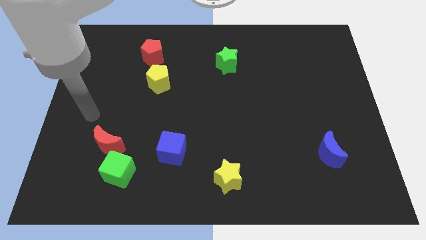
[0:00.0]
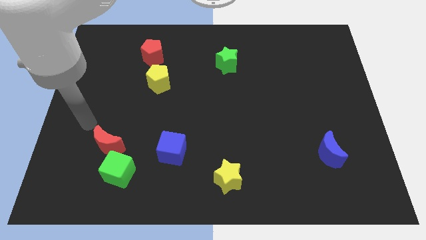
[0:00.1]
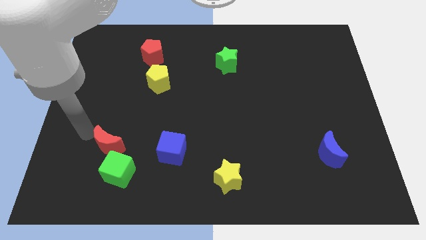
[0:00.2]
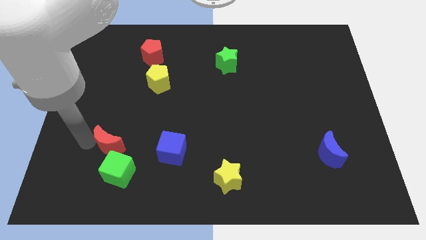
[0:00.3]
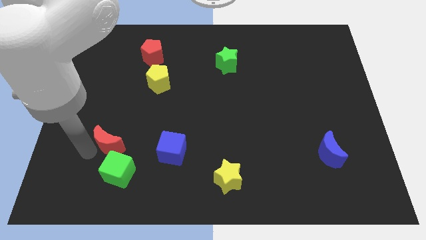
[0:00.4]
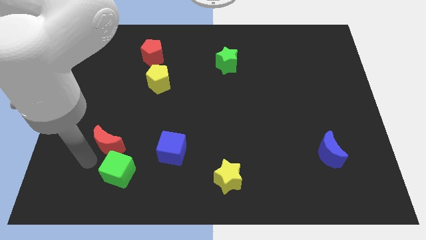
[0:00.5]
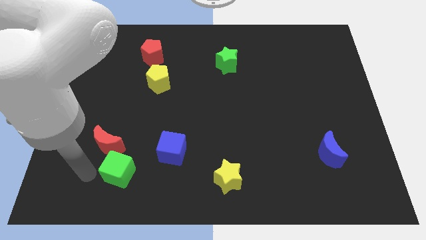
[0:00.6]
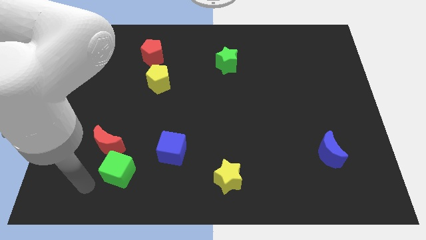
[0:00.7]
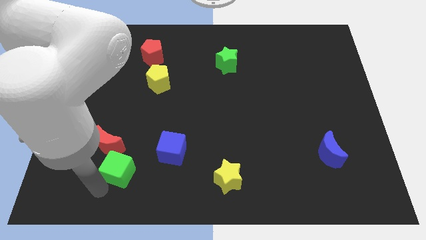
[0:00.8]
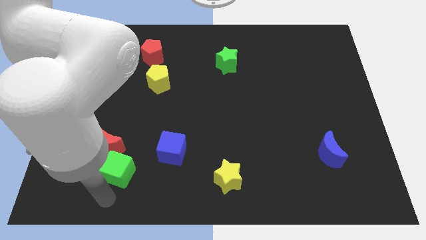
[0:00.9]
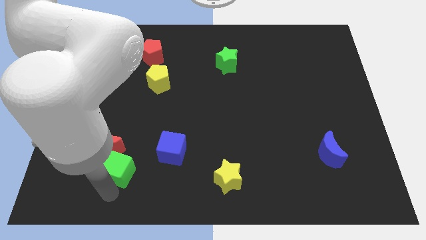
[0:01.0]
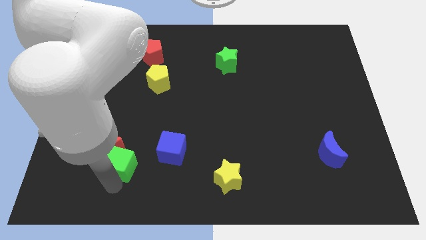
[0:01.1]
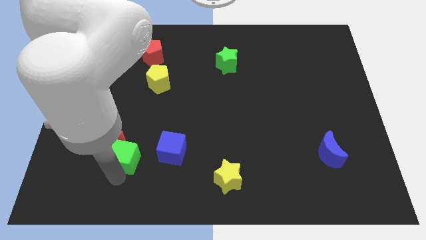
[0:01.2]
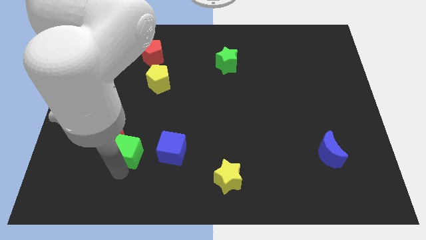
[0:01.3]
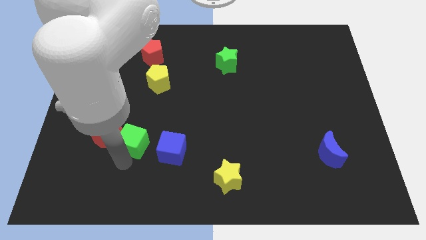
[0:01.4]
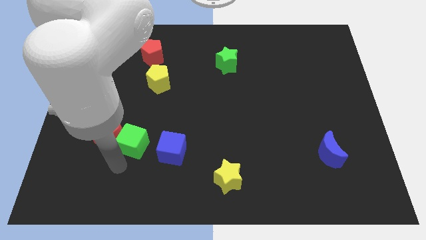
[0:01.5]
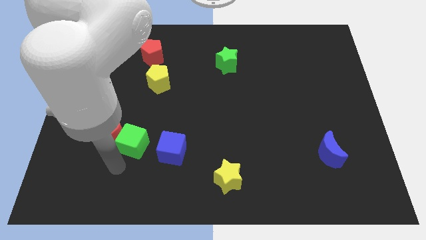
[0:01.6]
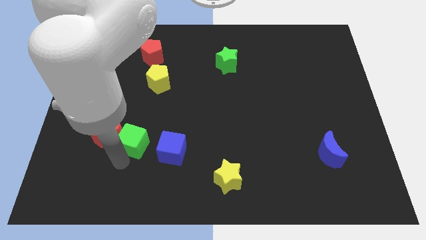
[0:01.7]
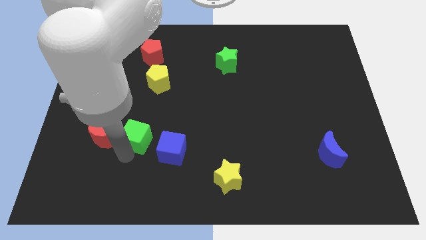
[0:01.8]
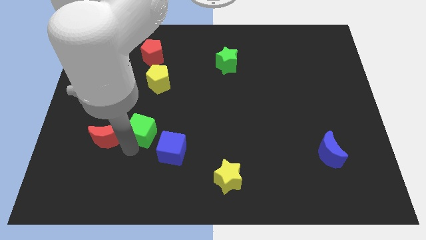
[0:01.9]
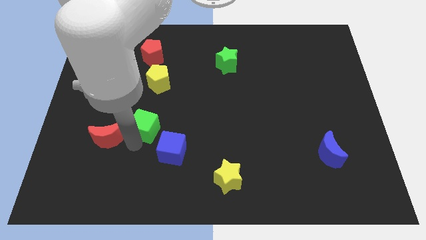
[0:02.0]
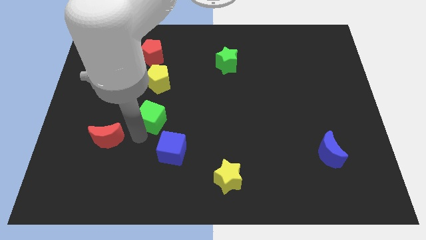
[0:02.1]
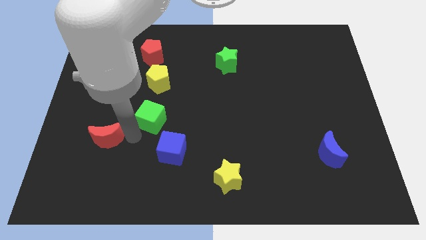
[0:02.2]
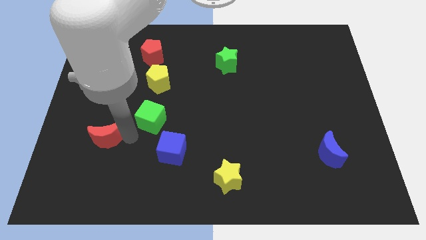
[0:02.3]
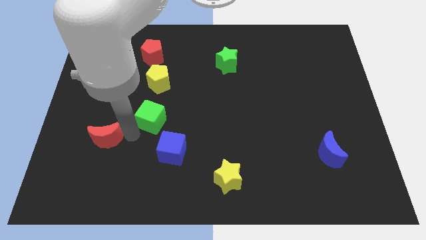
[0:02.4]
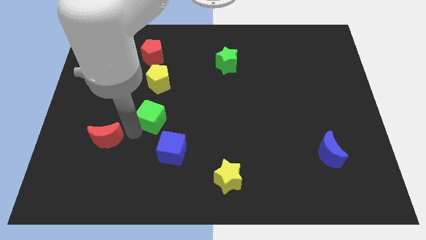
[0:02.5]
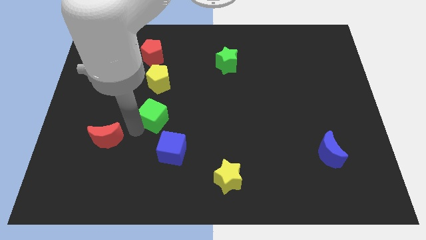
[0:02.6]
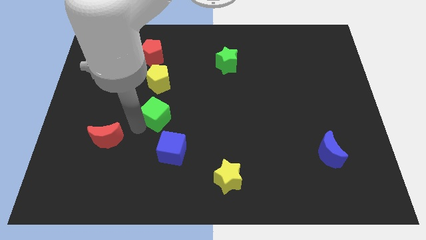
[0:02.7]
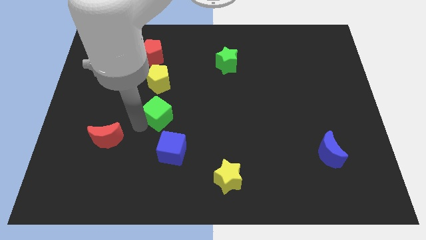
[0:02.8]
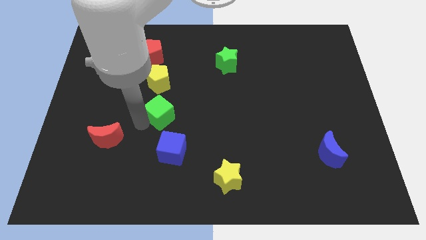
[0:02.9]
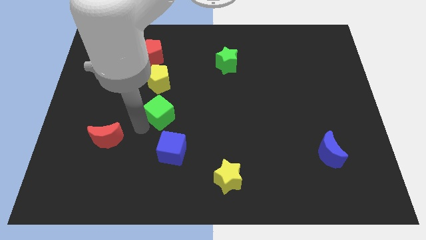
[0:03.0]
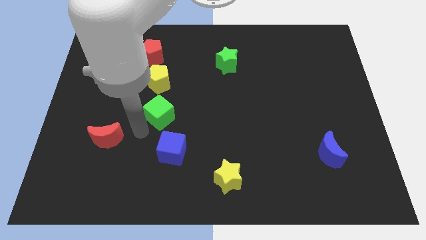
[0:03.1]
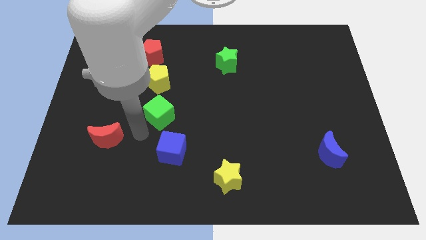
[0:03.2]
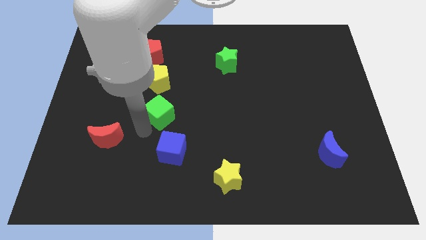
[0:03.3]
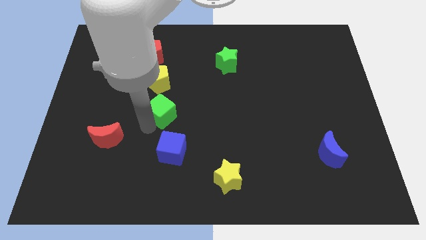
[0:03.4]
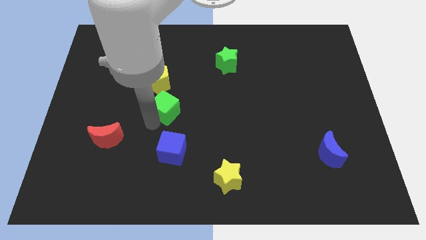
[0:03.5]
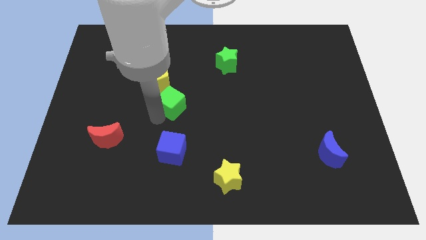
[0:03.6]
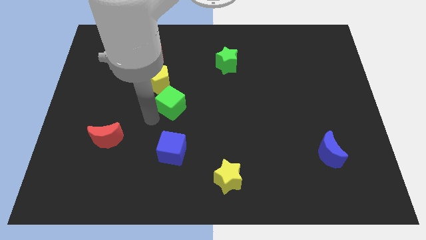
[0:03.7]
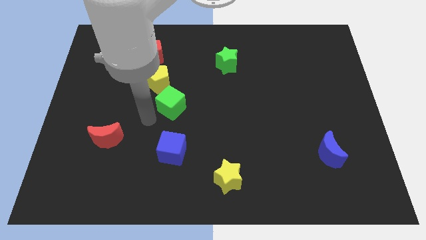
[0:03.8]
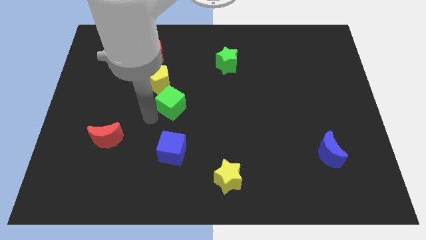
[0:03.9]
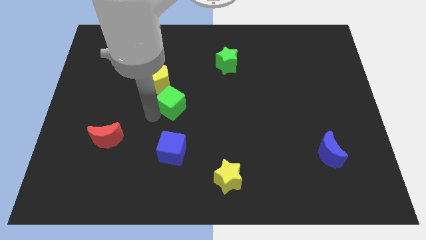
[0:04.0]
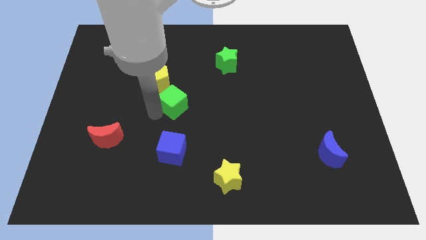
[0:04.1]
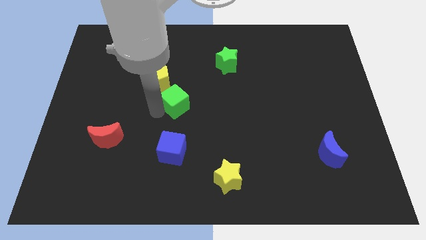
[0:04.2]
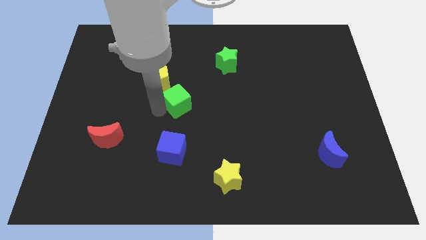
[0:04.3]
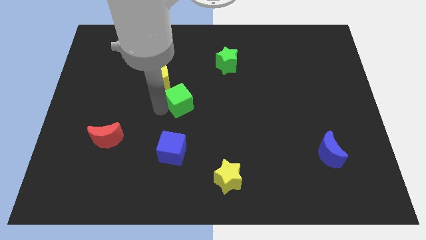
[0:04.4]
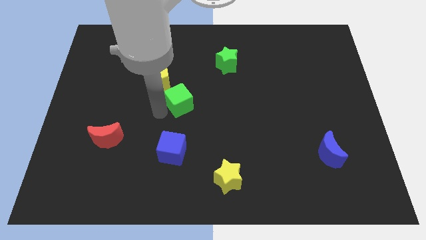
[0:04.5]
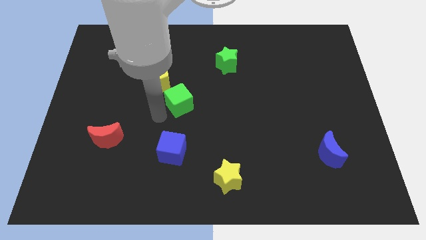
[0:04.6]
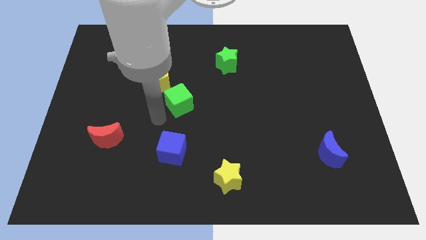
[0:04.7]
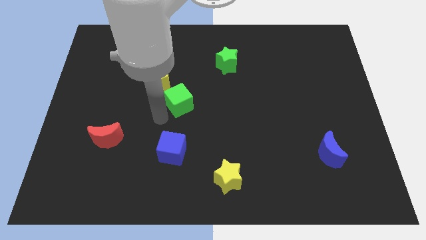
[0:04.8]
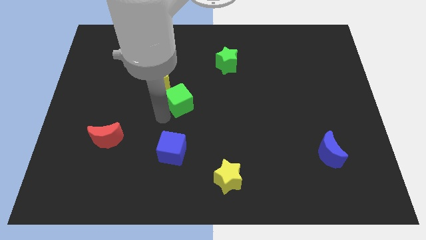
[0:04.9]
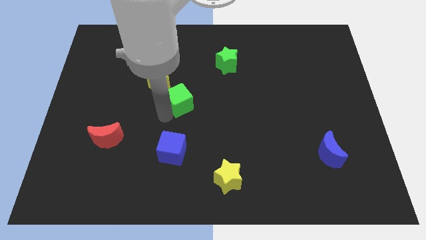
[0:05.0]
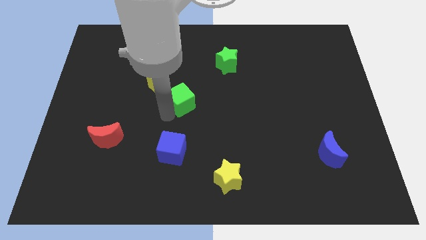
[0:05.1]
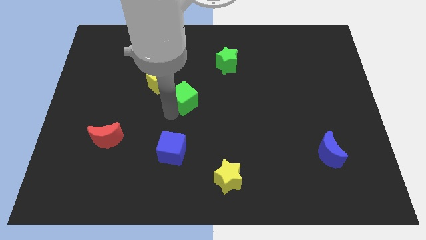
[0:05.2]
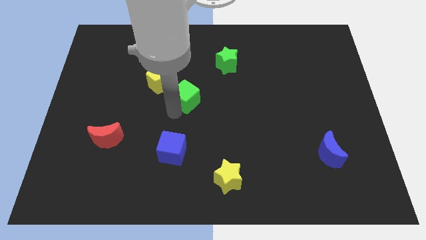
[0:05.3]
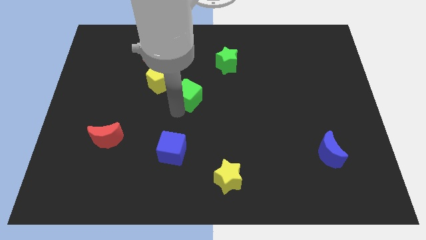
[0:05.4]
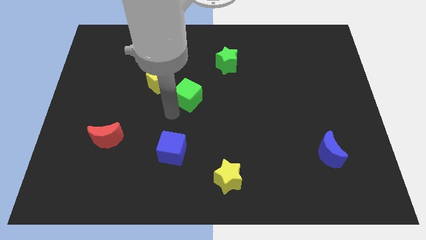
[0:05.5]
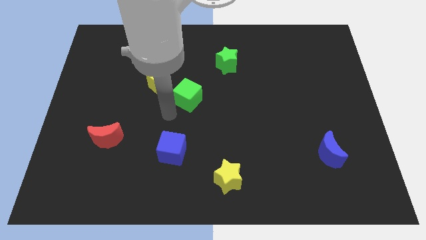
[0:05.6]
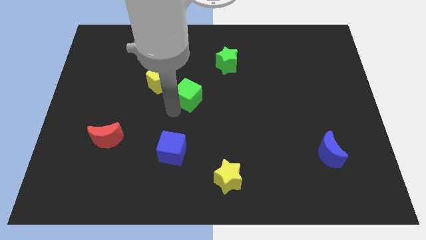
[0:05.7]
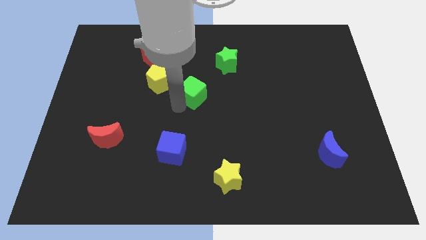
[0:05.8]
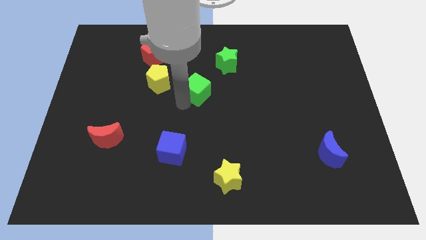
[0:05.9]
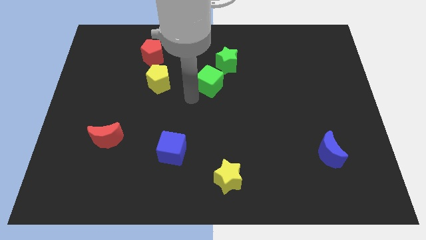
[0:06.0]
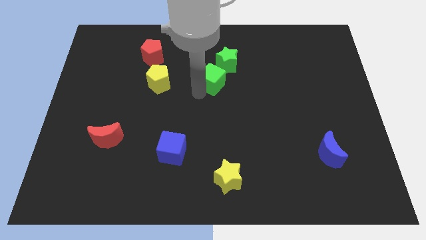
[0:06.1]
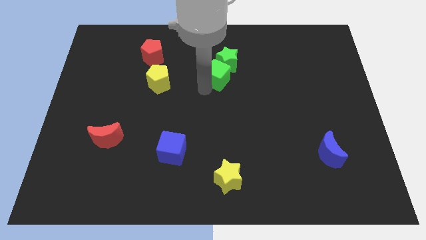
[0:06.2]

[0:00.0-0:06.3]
slide the green cube next to the green star

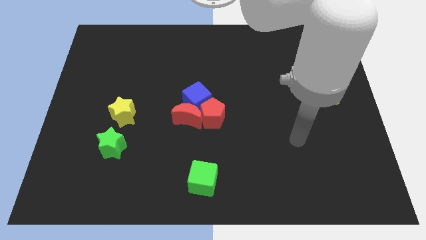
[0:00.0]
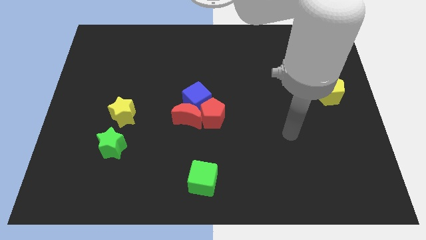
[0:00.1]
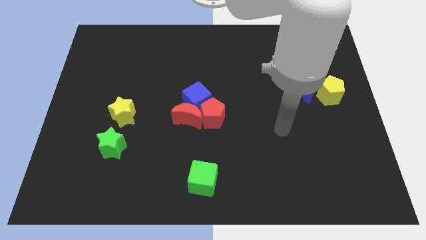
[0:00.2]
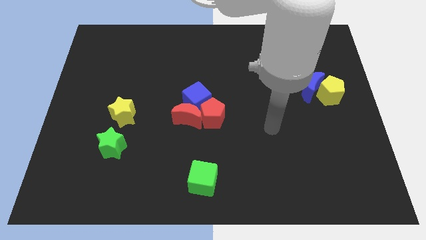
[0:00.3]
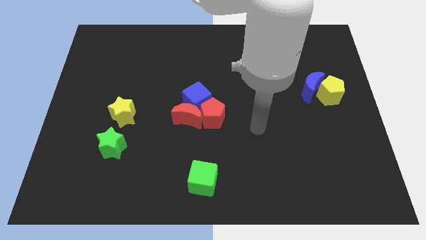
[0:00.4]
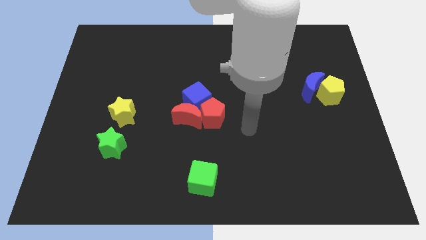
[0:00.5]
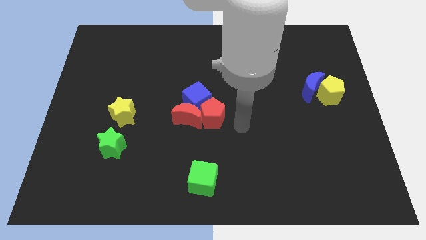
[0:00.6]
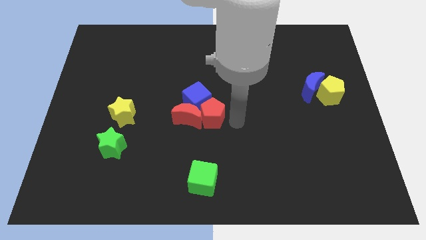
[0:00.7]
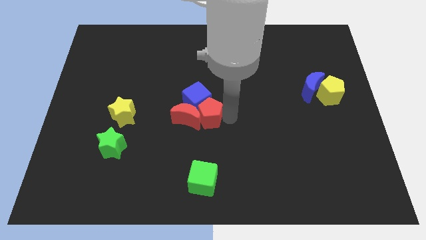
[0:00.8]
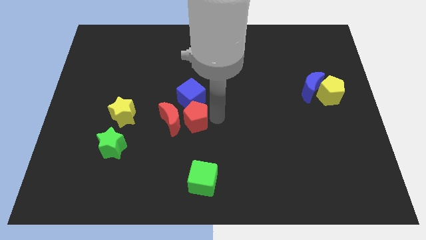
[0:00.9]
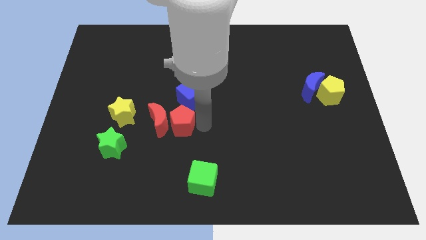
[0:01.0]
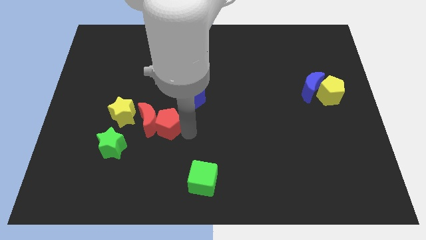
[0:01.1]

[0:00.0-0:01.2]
push the red moon to the yellow star
